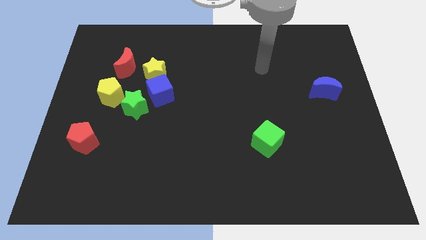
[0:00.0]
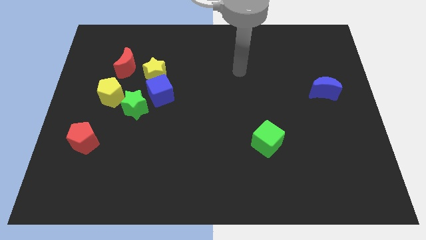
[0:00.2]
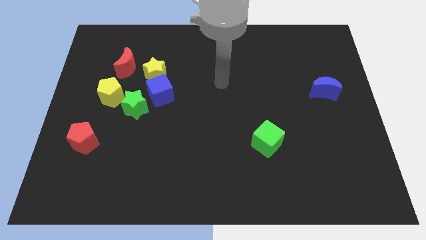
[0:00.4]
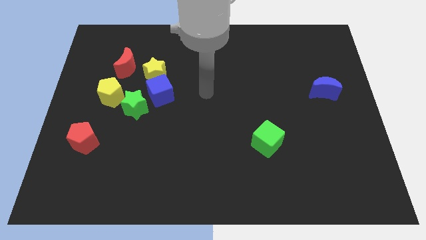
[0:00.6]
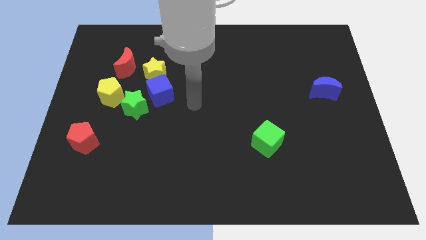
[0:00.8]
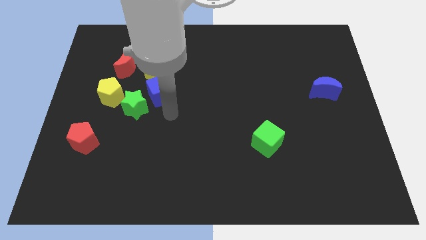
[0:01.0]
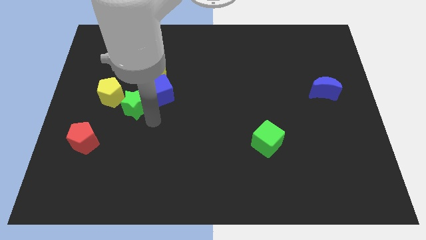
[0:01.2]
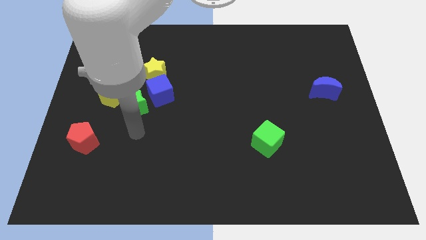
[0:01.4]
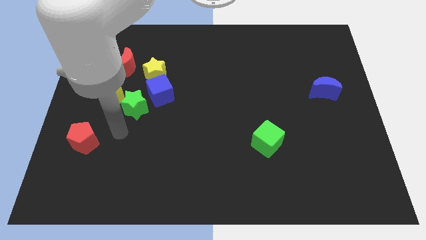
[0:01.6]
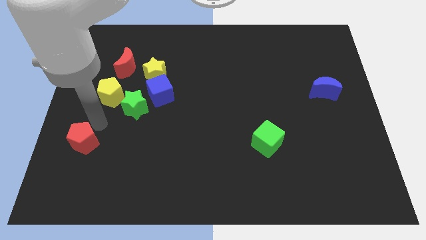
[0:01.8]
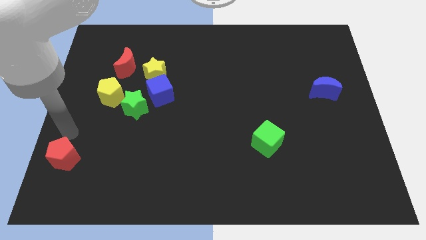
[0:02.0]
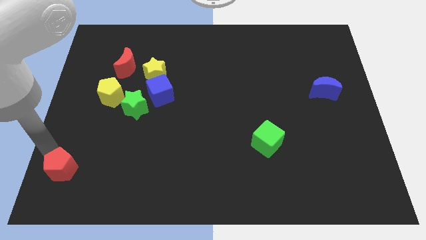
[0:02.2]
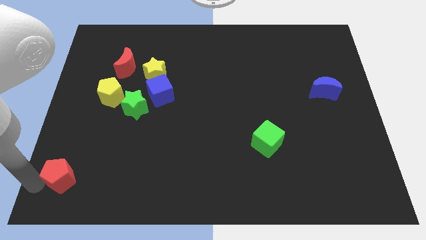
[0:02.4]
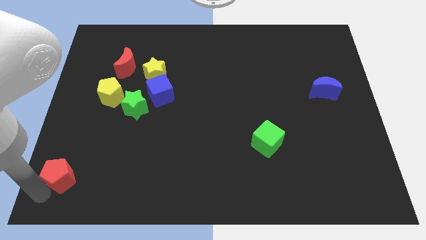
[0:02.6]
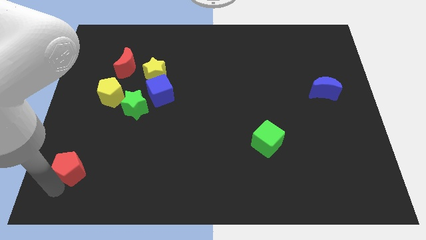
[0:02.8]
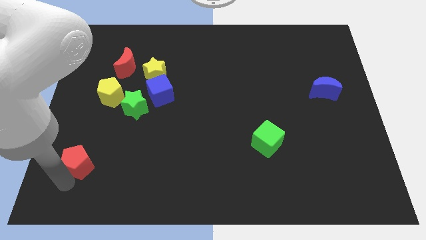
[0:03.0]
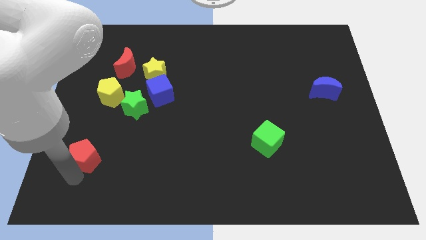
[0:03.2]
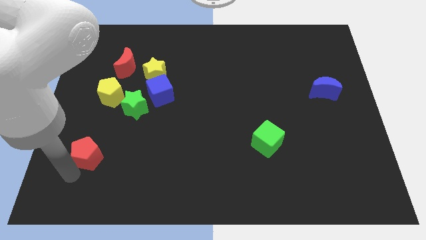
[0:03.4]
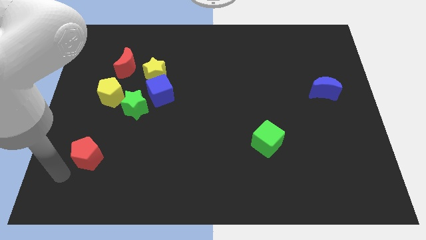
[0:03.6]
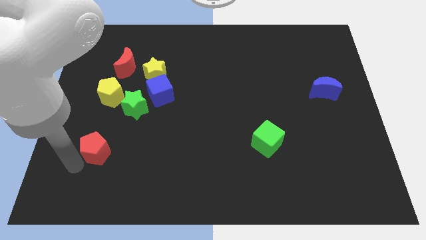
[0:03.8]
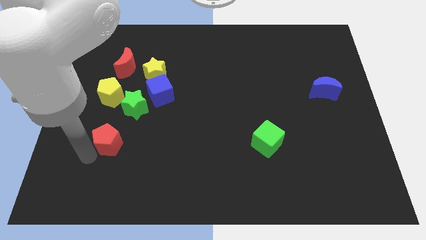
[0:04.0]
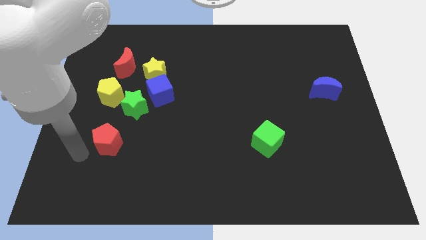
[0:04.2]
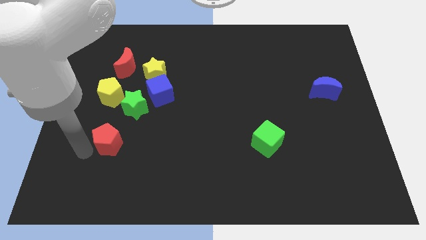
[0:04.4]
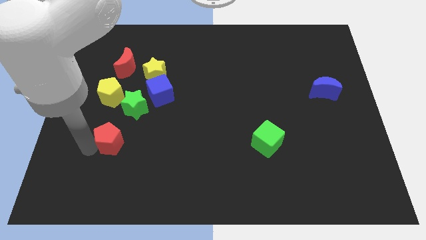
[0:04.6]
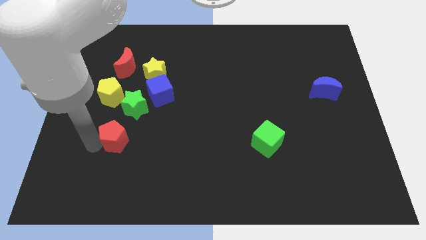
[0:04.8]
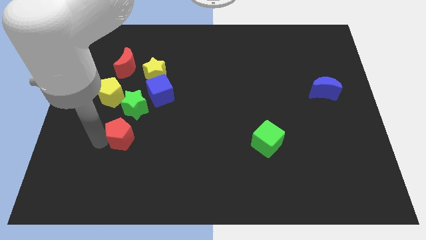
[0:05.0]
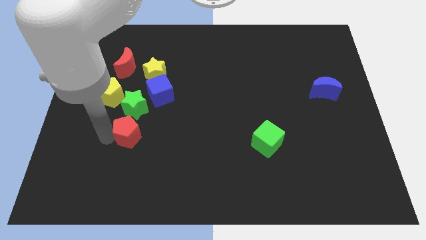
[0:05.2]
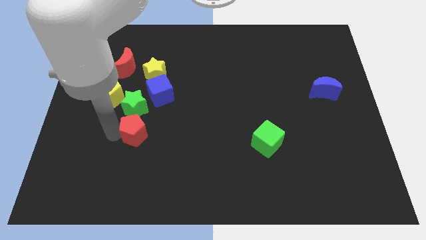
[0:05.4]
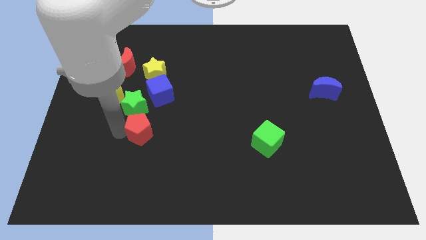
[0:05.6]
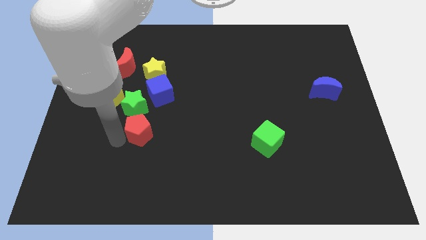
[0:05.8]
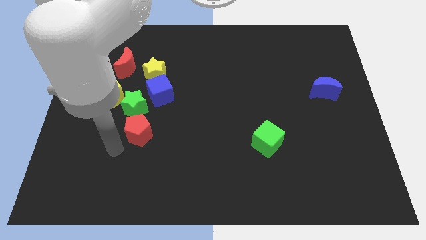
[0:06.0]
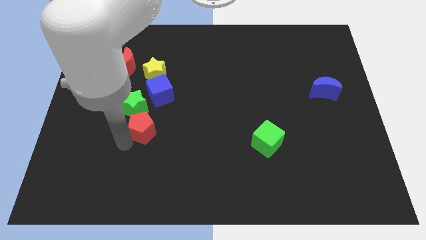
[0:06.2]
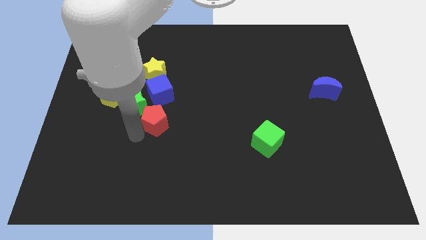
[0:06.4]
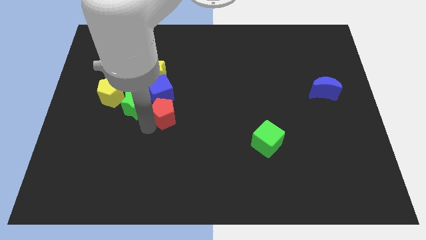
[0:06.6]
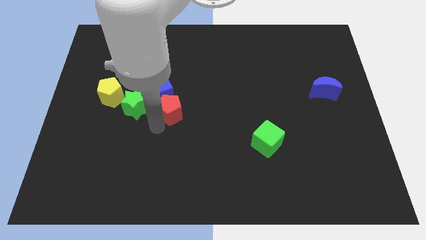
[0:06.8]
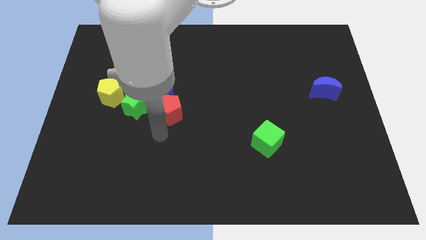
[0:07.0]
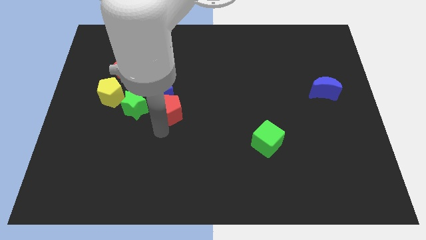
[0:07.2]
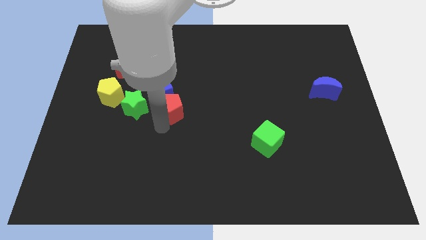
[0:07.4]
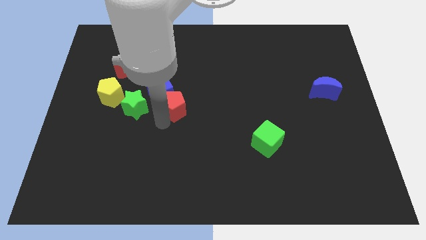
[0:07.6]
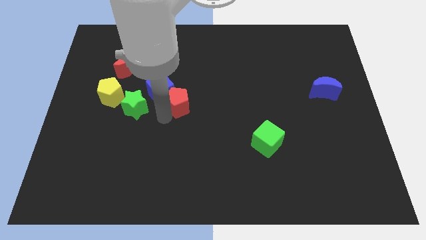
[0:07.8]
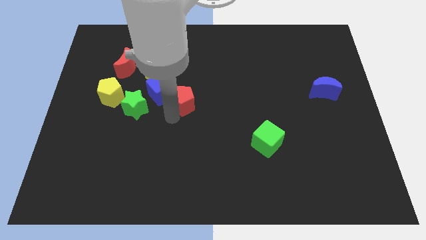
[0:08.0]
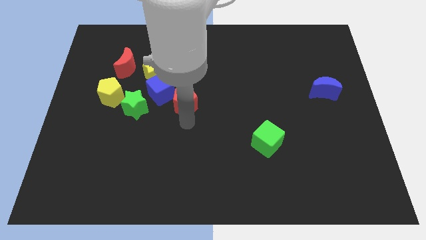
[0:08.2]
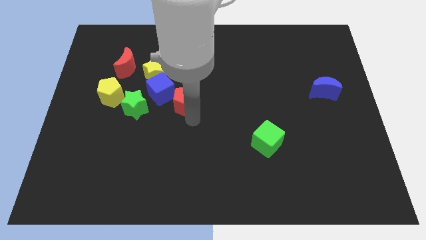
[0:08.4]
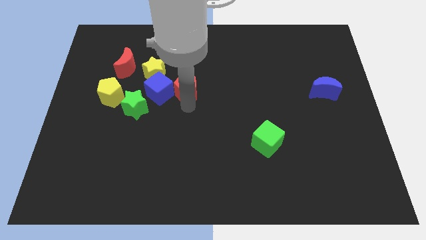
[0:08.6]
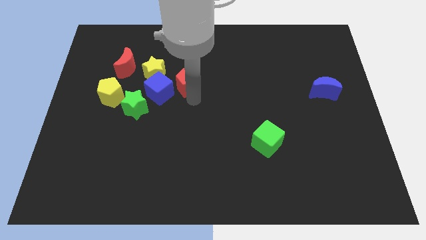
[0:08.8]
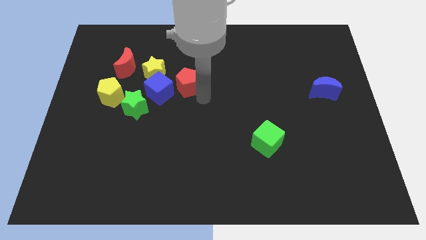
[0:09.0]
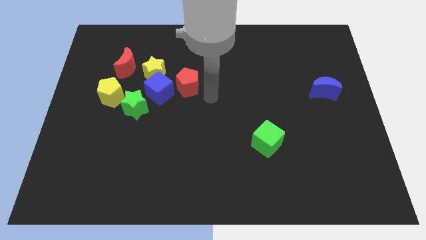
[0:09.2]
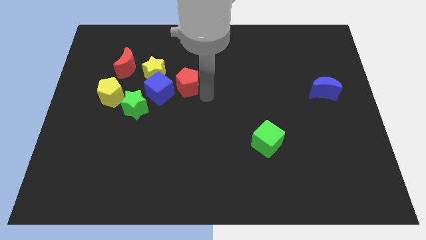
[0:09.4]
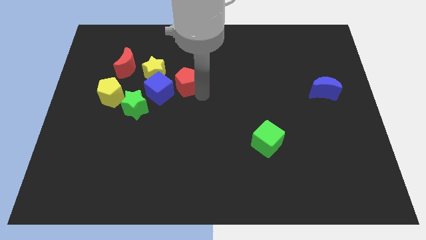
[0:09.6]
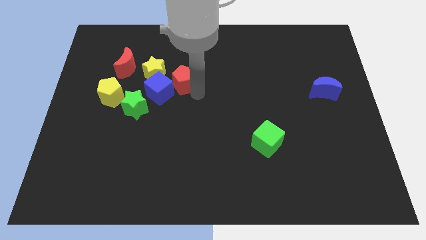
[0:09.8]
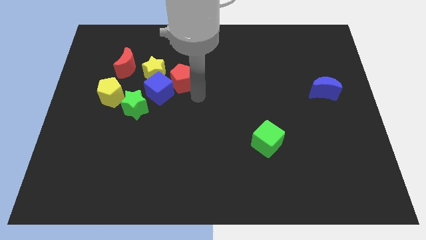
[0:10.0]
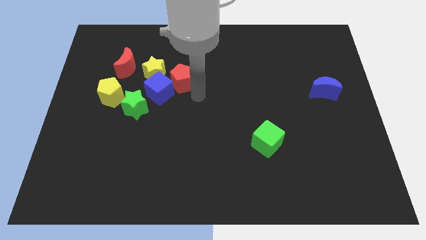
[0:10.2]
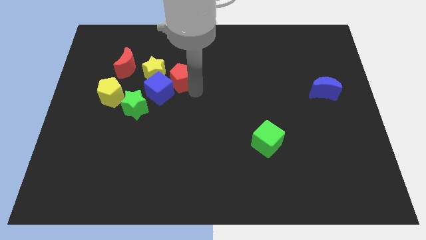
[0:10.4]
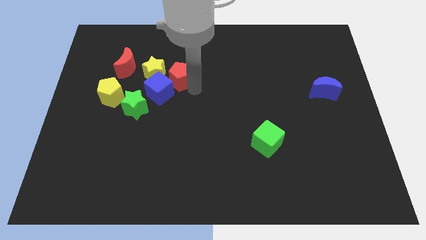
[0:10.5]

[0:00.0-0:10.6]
put the red pentagon to the right side of the red moon

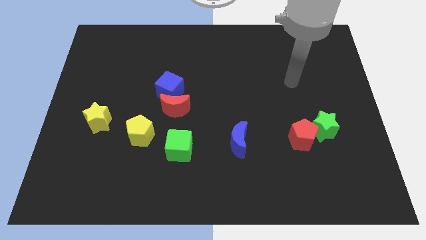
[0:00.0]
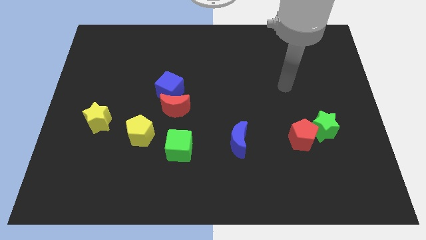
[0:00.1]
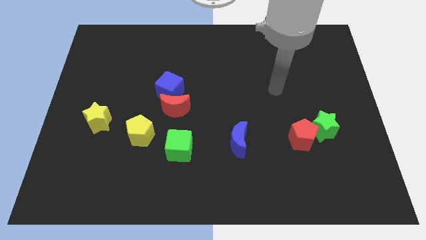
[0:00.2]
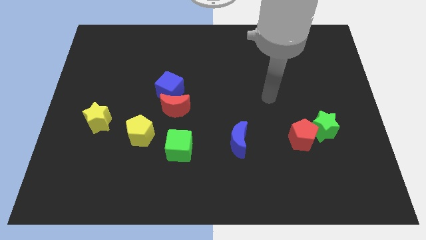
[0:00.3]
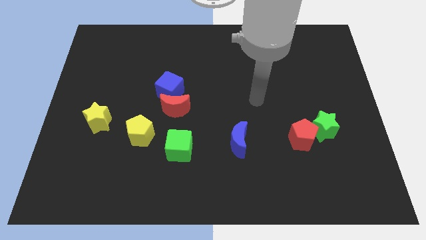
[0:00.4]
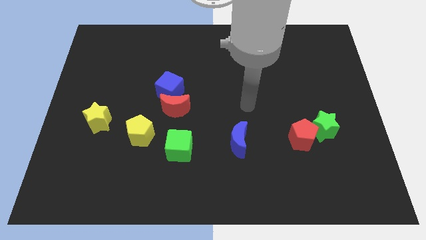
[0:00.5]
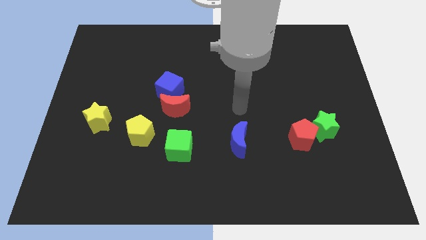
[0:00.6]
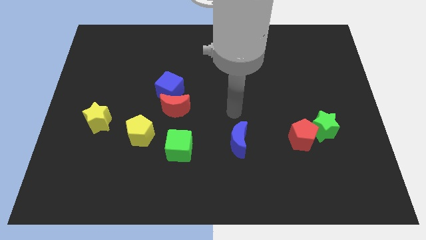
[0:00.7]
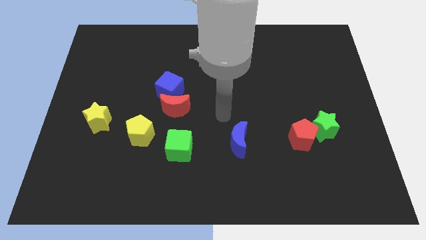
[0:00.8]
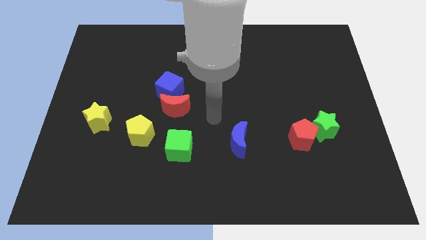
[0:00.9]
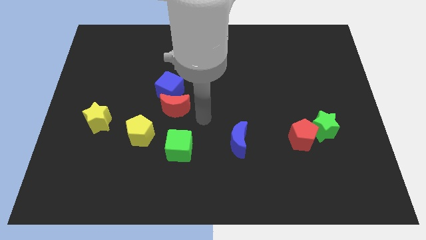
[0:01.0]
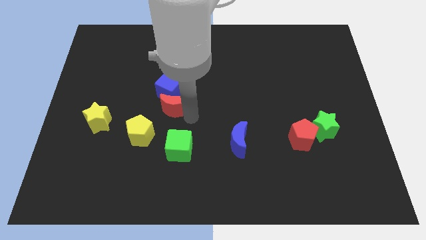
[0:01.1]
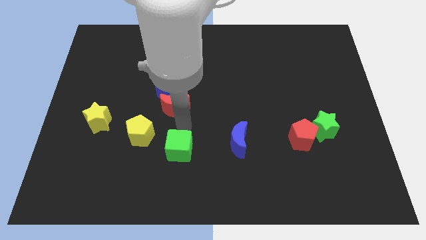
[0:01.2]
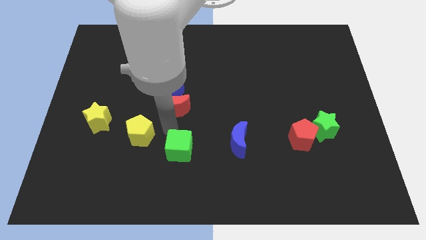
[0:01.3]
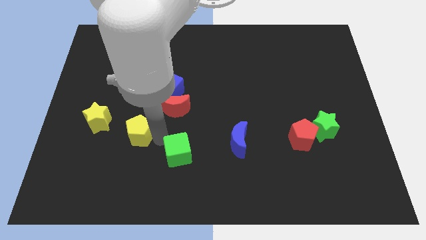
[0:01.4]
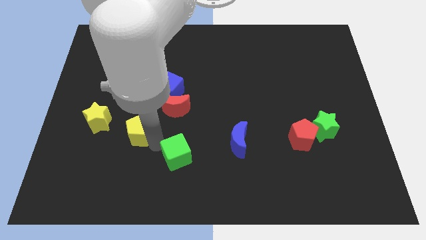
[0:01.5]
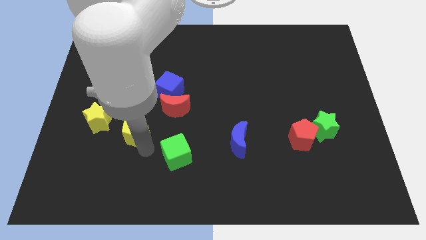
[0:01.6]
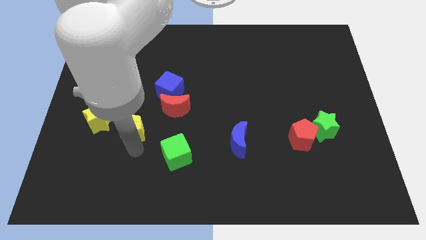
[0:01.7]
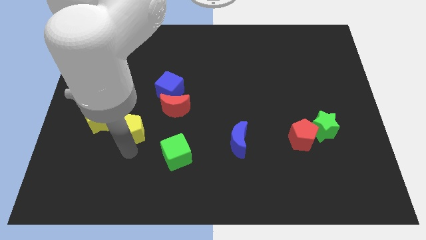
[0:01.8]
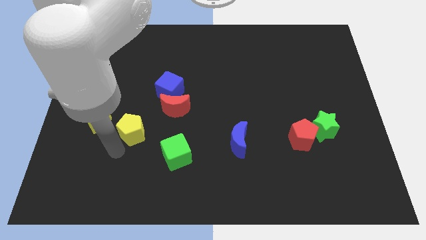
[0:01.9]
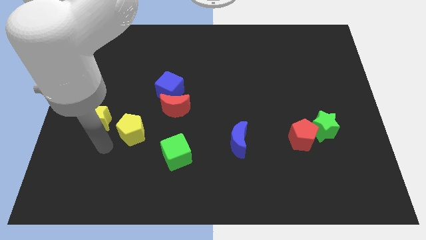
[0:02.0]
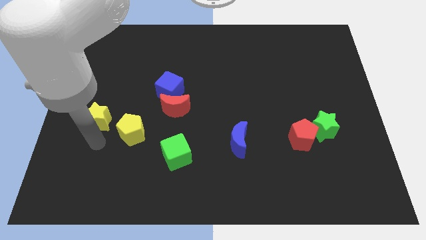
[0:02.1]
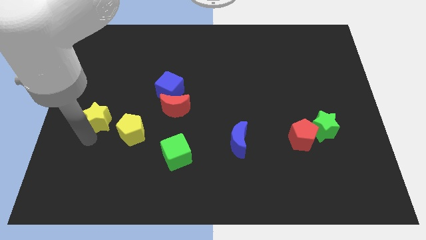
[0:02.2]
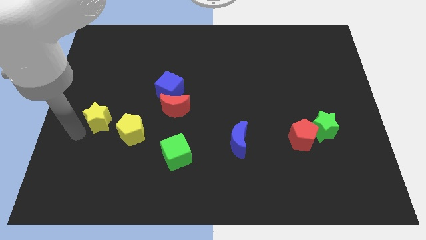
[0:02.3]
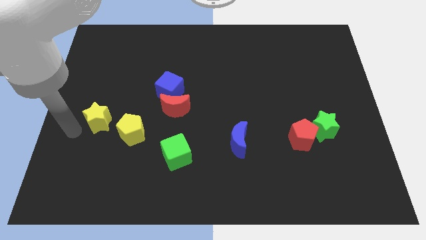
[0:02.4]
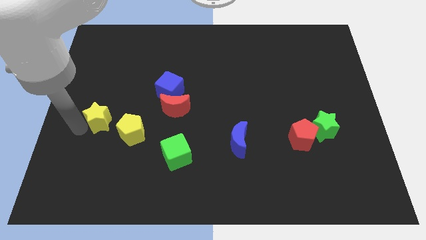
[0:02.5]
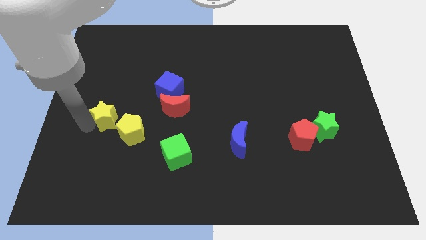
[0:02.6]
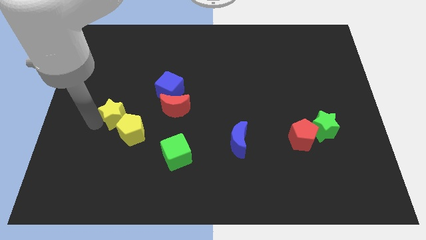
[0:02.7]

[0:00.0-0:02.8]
put the yellow star to the top side of the yellow pentagon
